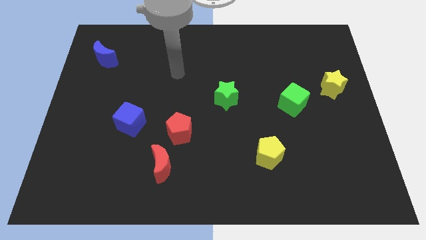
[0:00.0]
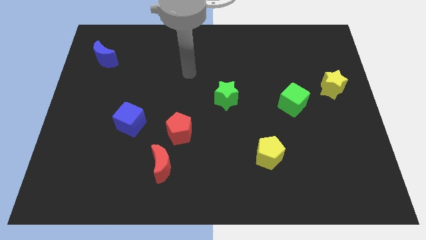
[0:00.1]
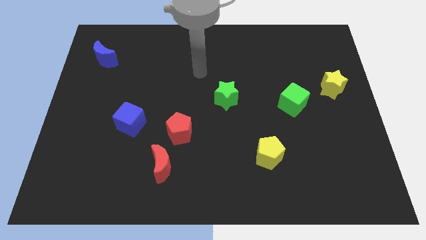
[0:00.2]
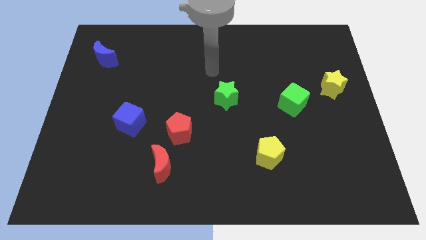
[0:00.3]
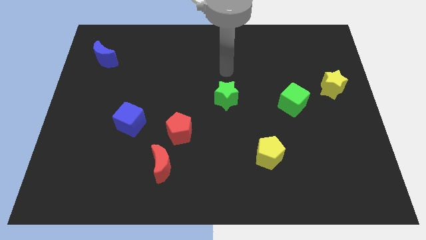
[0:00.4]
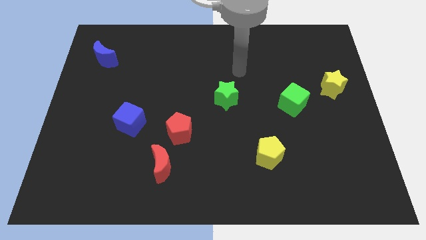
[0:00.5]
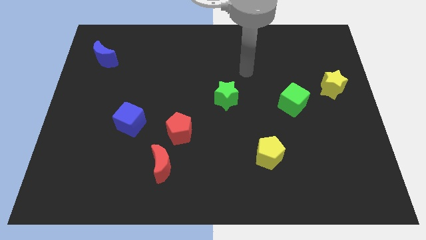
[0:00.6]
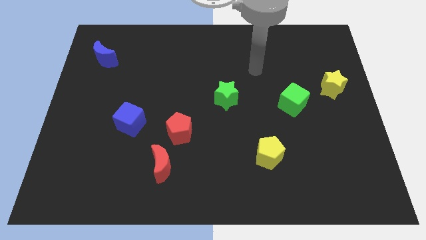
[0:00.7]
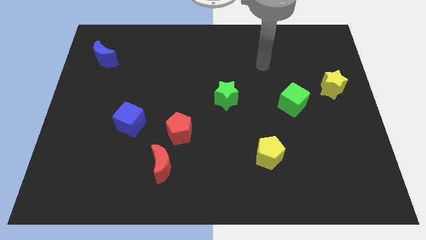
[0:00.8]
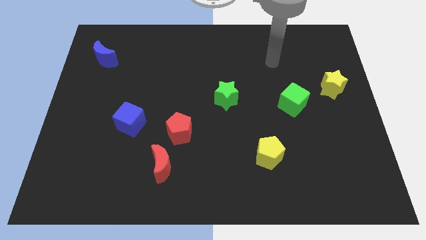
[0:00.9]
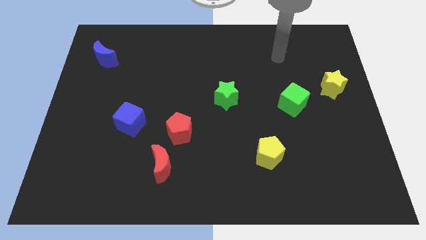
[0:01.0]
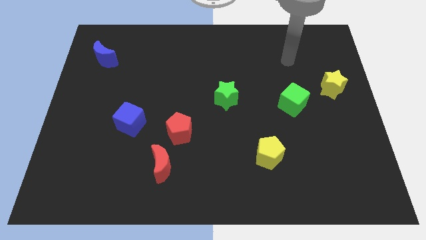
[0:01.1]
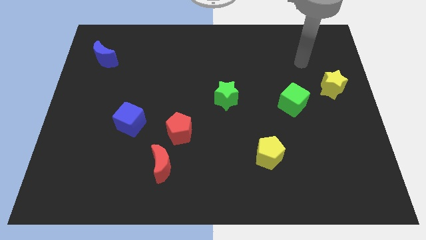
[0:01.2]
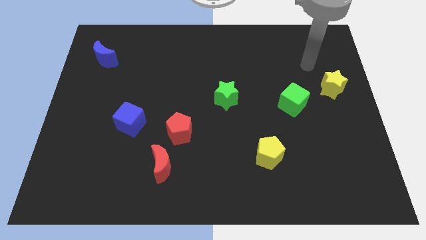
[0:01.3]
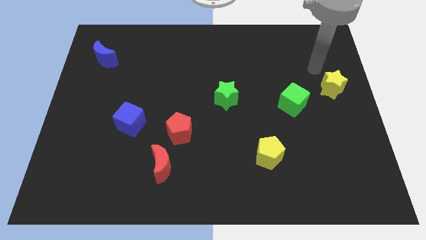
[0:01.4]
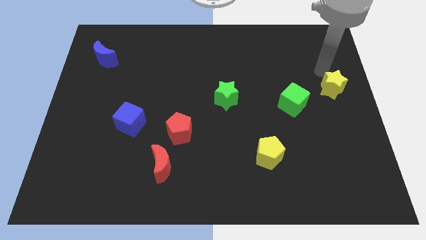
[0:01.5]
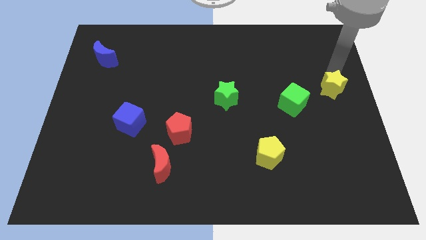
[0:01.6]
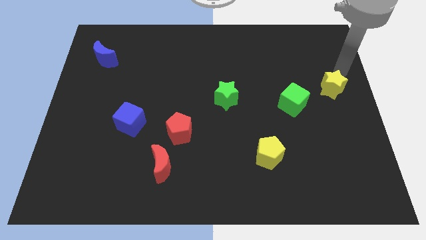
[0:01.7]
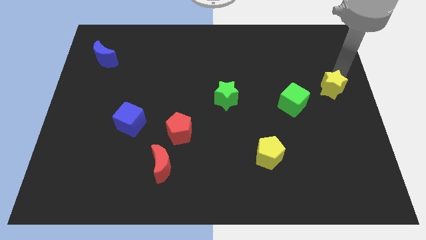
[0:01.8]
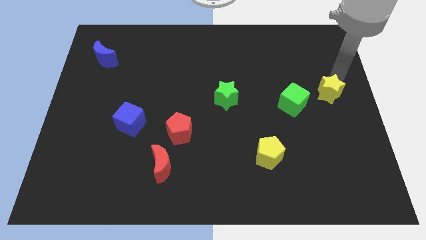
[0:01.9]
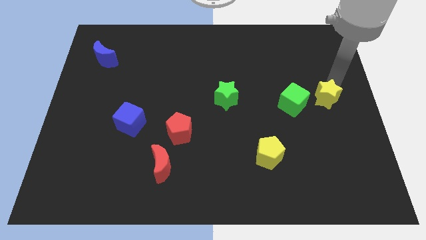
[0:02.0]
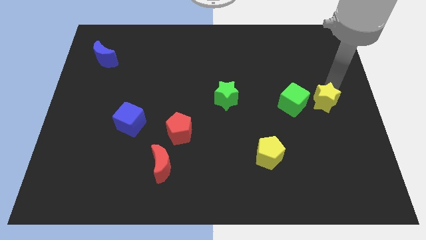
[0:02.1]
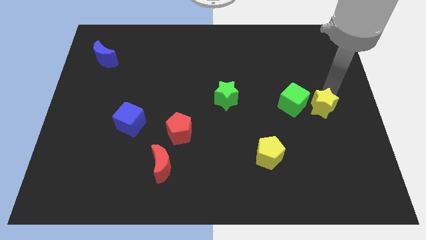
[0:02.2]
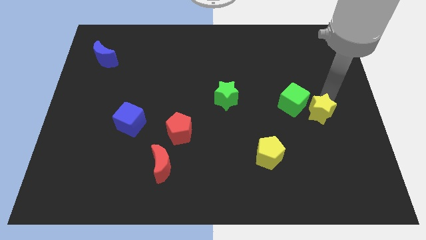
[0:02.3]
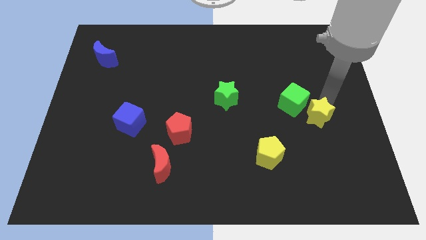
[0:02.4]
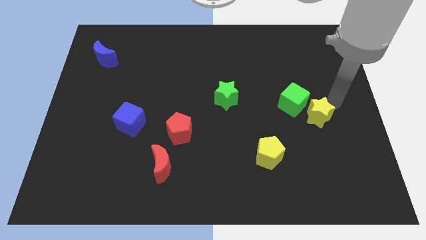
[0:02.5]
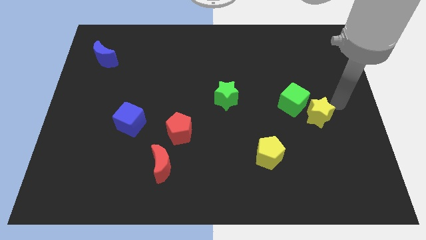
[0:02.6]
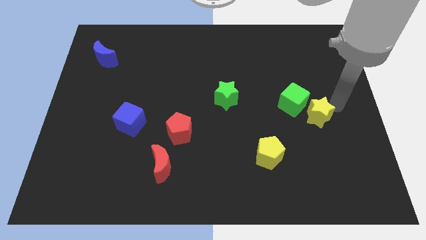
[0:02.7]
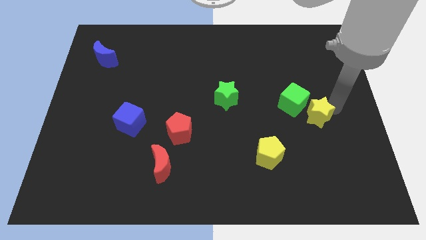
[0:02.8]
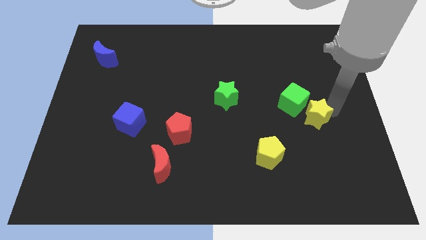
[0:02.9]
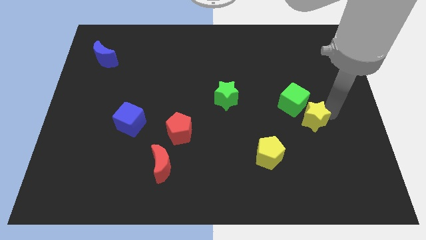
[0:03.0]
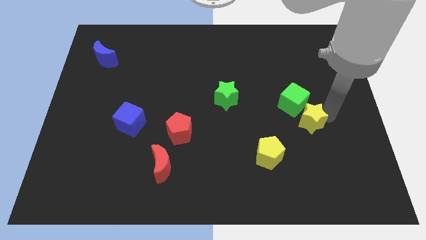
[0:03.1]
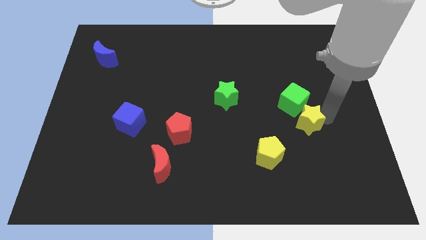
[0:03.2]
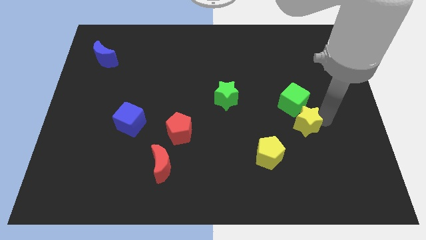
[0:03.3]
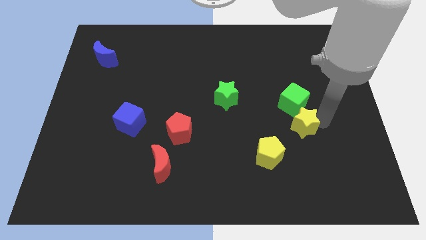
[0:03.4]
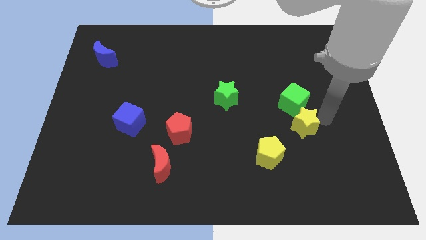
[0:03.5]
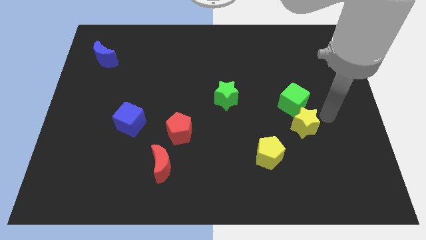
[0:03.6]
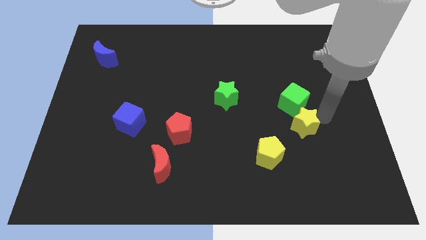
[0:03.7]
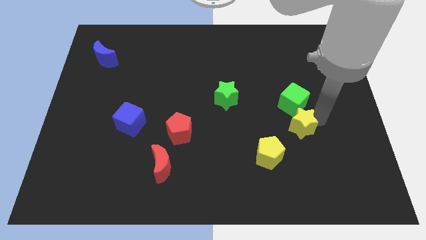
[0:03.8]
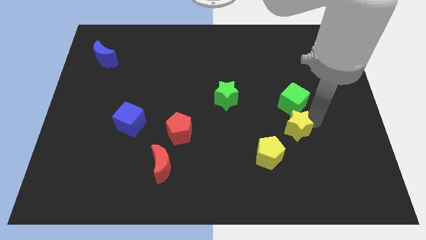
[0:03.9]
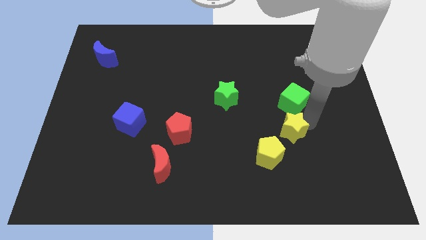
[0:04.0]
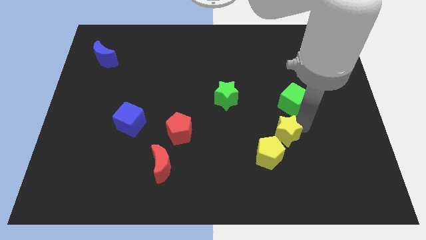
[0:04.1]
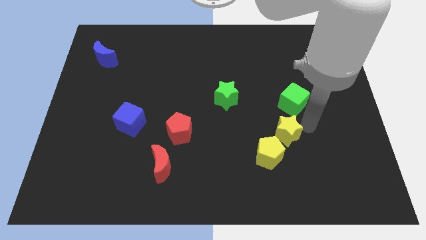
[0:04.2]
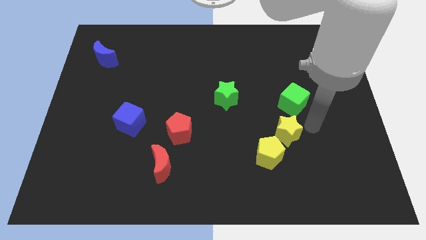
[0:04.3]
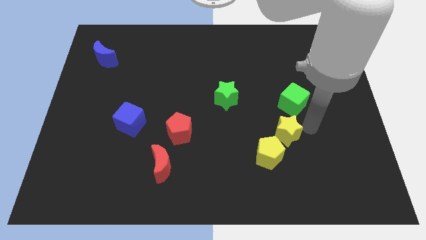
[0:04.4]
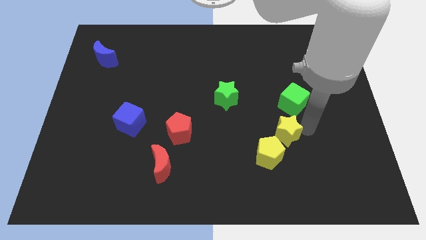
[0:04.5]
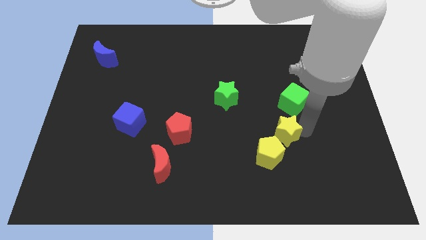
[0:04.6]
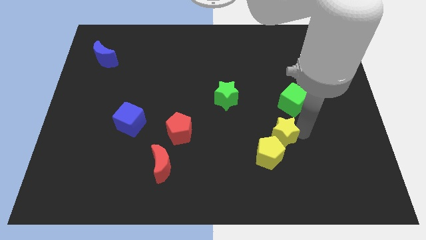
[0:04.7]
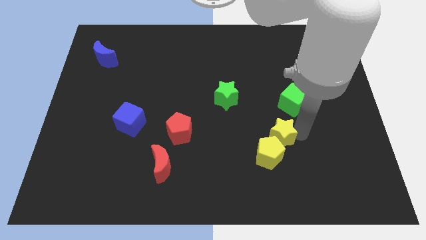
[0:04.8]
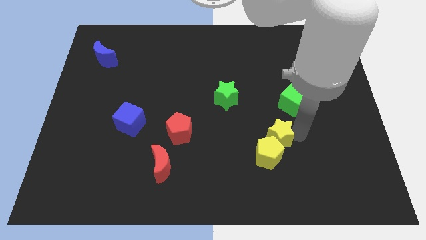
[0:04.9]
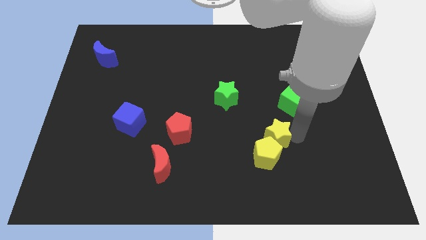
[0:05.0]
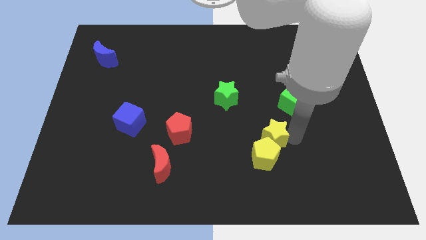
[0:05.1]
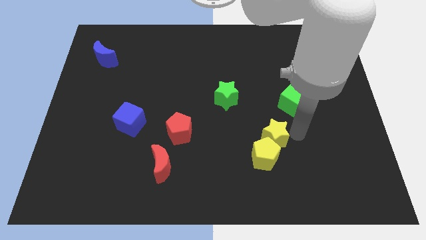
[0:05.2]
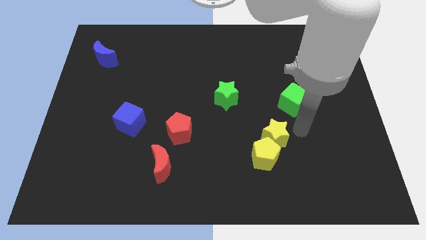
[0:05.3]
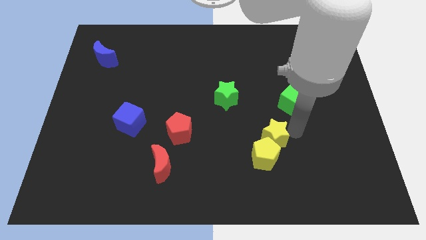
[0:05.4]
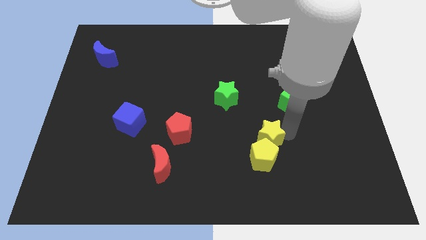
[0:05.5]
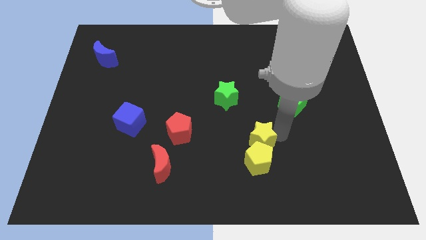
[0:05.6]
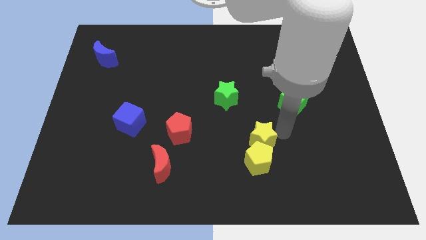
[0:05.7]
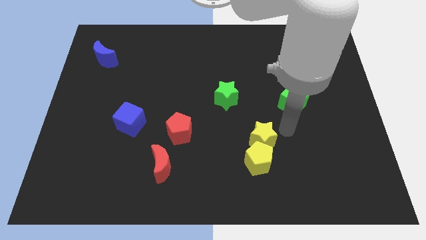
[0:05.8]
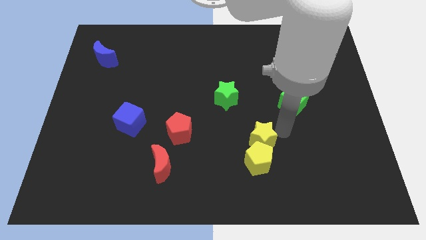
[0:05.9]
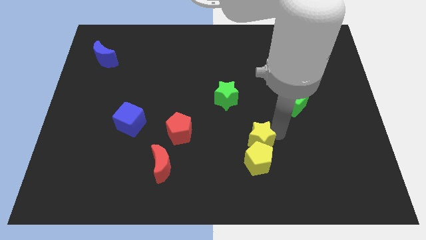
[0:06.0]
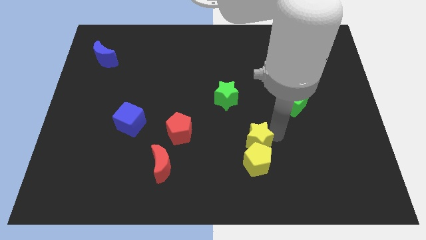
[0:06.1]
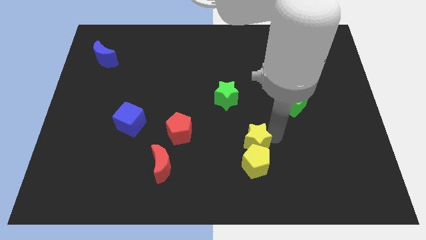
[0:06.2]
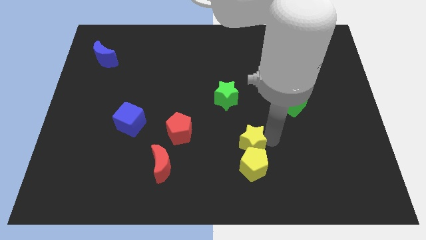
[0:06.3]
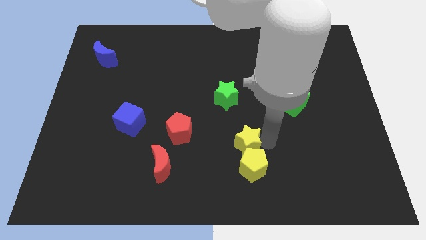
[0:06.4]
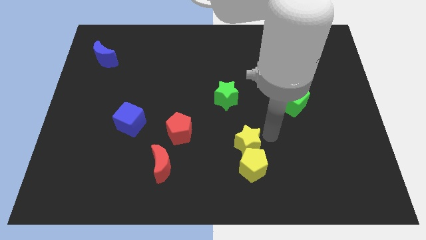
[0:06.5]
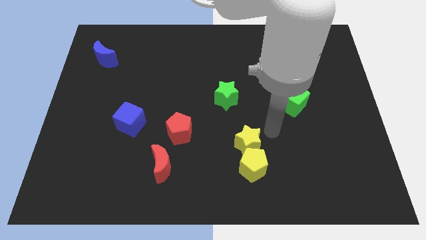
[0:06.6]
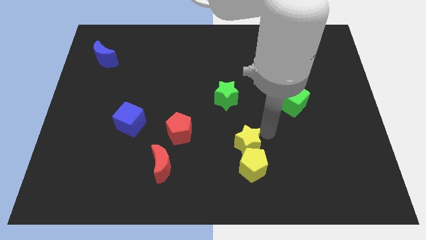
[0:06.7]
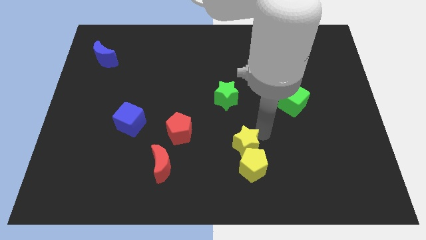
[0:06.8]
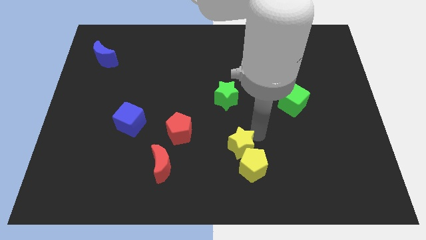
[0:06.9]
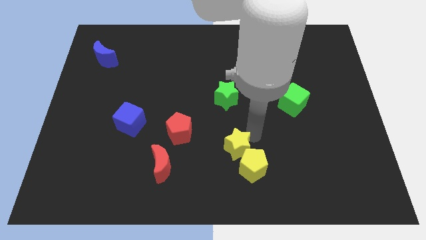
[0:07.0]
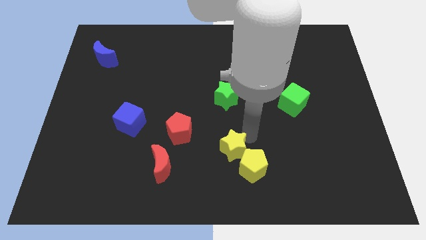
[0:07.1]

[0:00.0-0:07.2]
push the yellow star just left of the yellow pentagon
